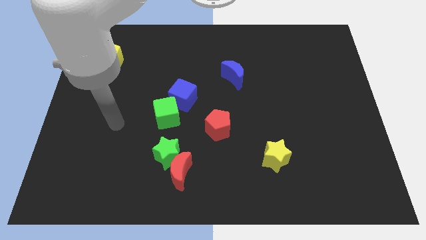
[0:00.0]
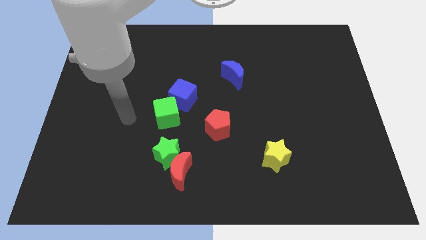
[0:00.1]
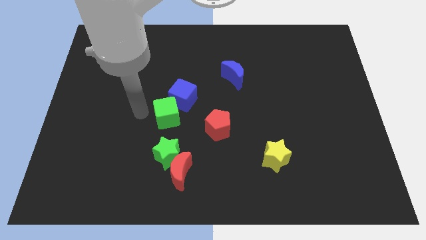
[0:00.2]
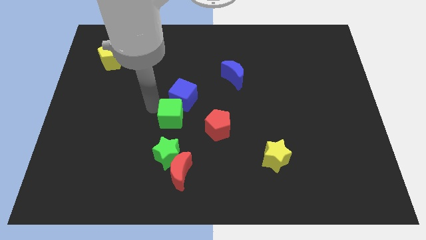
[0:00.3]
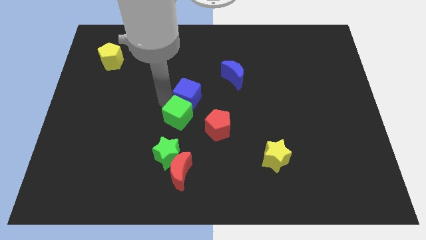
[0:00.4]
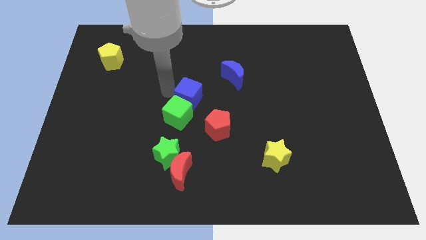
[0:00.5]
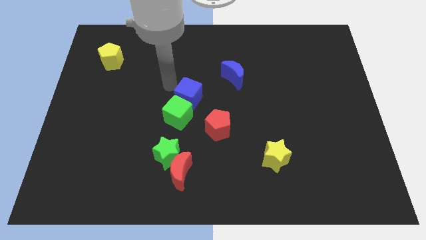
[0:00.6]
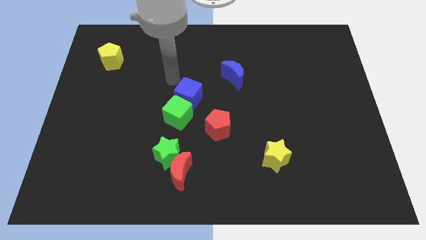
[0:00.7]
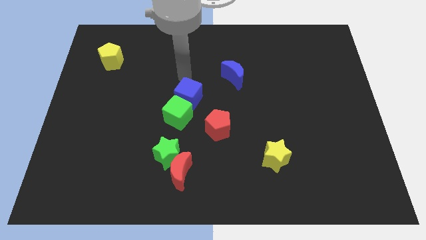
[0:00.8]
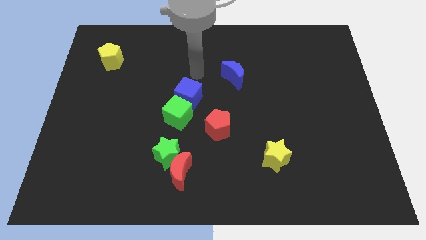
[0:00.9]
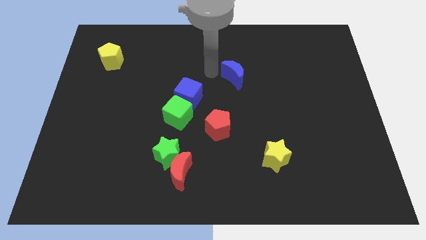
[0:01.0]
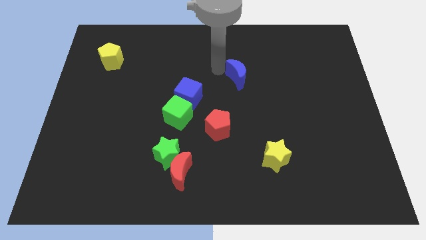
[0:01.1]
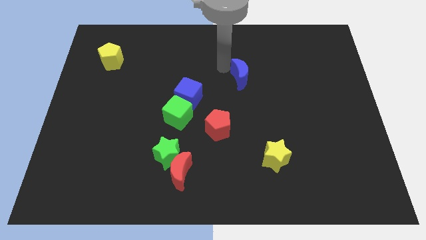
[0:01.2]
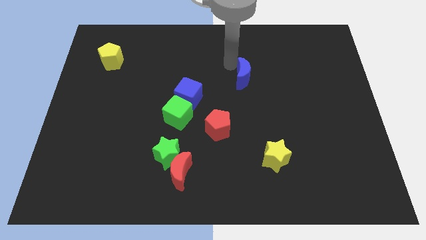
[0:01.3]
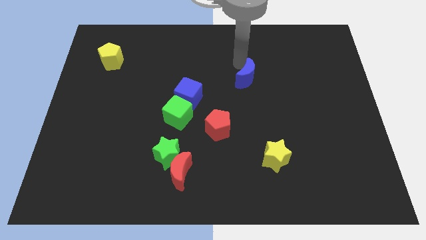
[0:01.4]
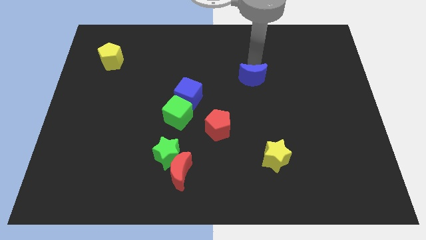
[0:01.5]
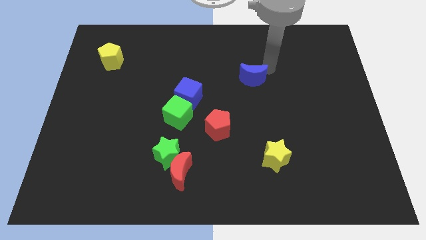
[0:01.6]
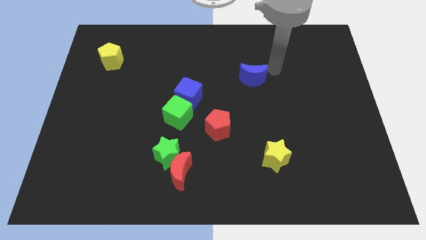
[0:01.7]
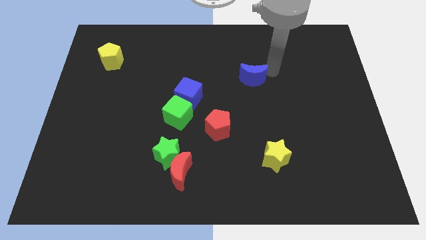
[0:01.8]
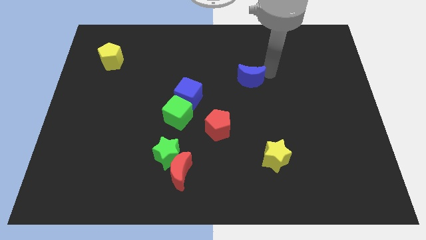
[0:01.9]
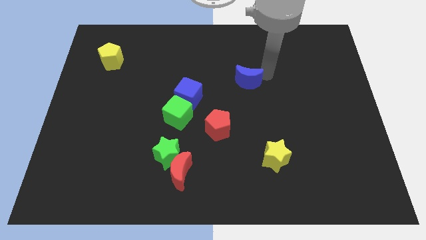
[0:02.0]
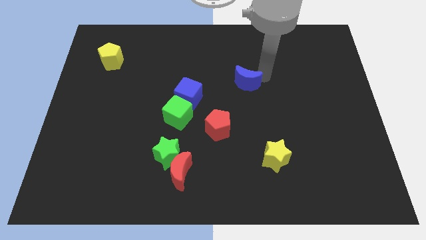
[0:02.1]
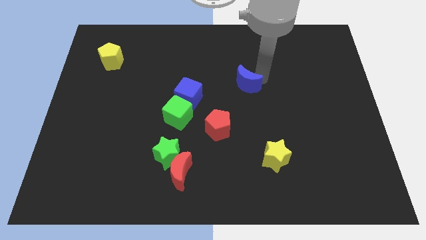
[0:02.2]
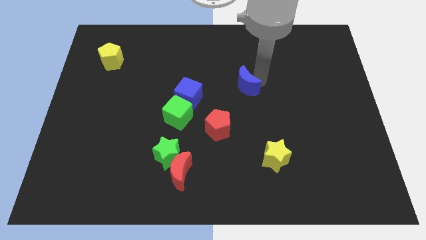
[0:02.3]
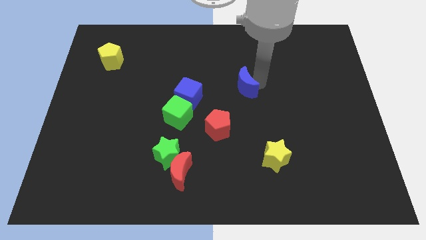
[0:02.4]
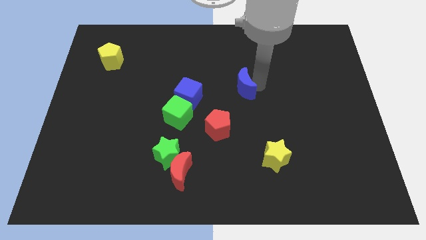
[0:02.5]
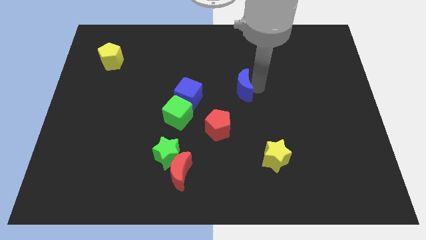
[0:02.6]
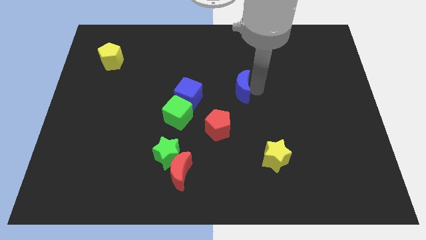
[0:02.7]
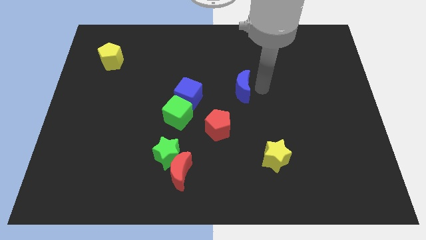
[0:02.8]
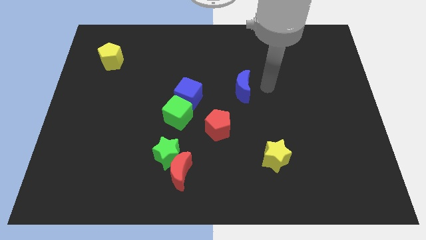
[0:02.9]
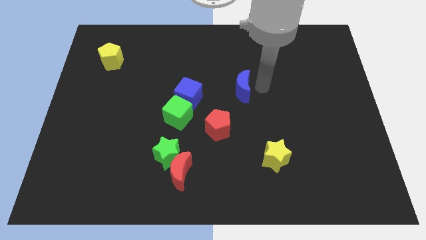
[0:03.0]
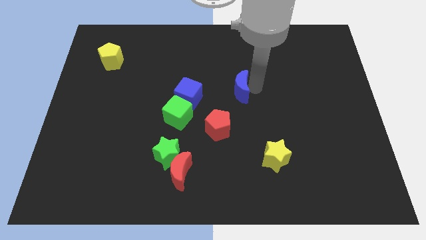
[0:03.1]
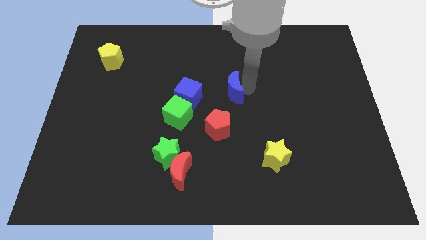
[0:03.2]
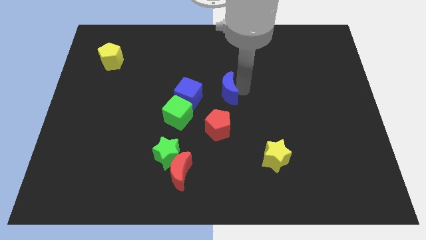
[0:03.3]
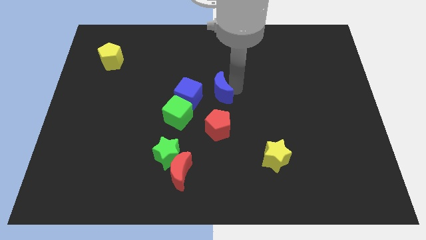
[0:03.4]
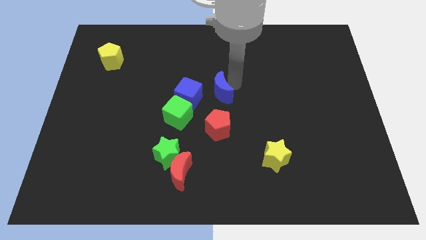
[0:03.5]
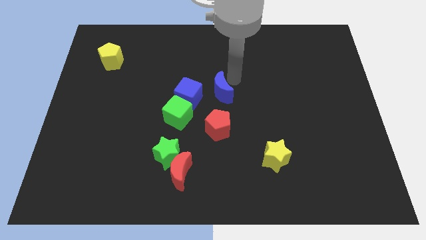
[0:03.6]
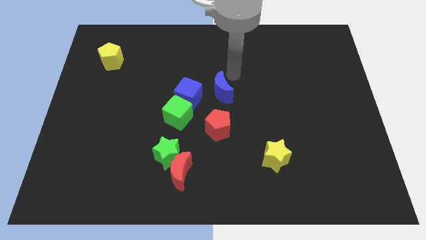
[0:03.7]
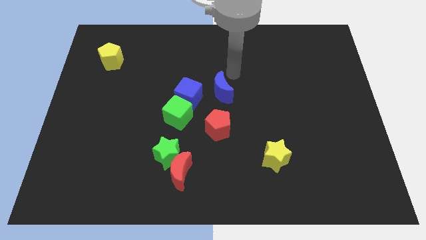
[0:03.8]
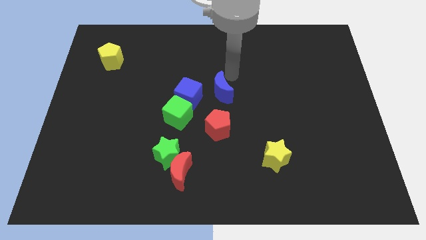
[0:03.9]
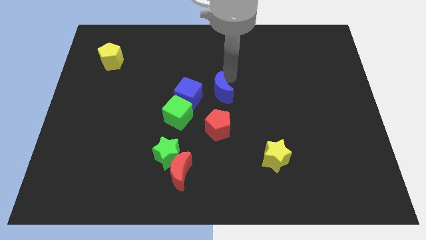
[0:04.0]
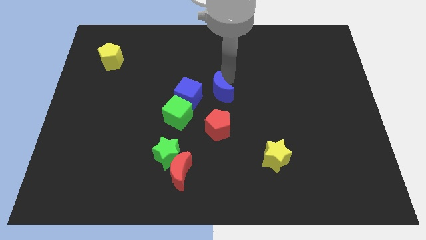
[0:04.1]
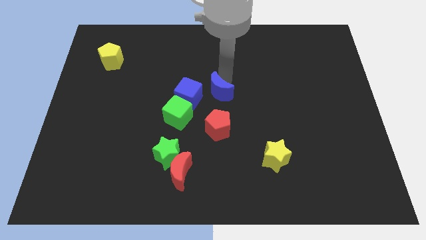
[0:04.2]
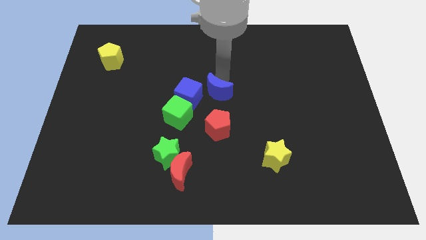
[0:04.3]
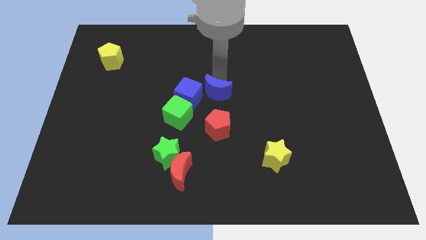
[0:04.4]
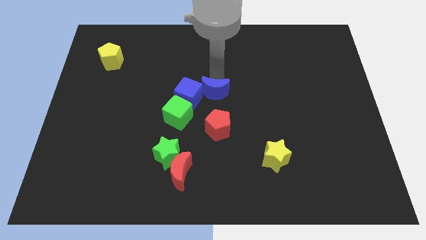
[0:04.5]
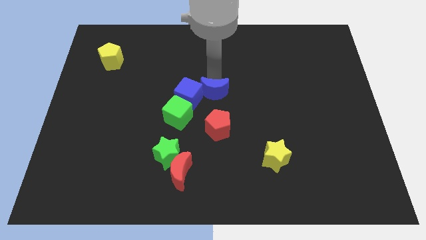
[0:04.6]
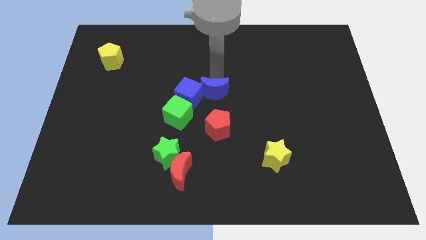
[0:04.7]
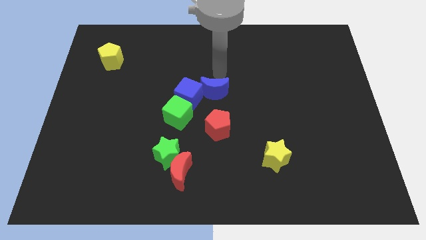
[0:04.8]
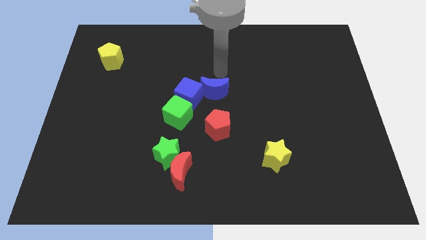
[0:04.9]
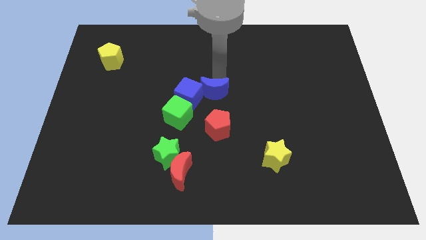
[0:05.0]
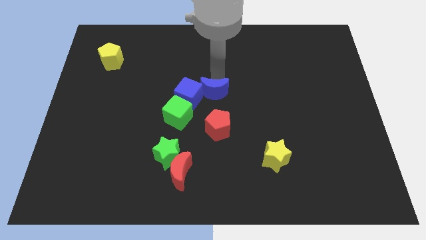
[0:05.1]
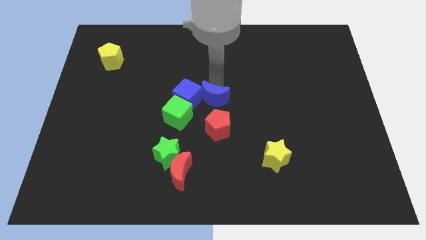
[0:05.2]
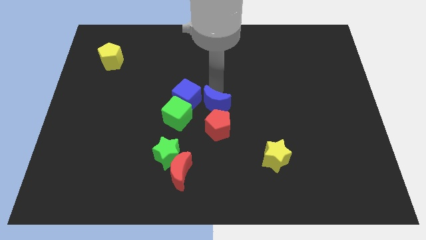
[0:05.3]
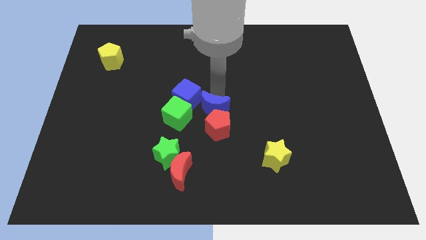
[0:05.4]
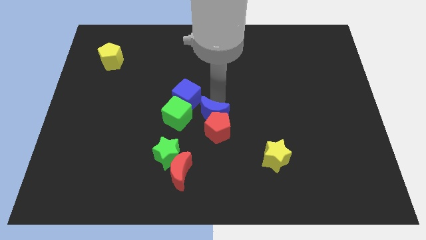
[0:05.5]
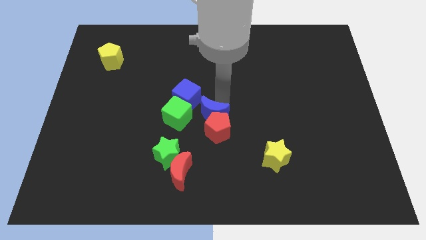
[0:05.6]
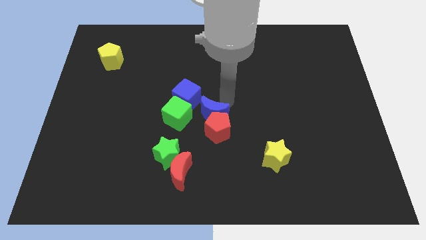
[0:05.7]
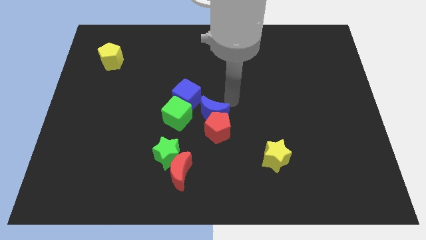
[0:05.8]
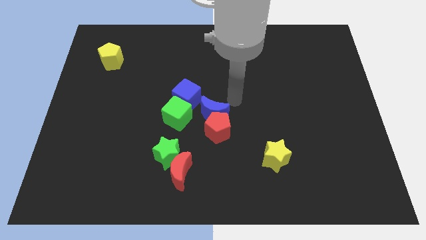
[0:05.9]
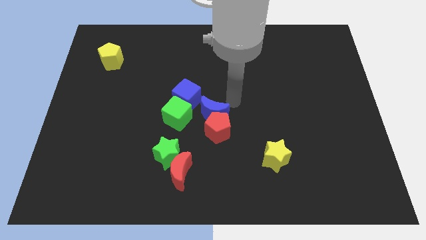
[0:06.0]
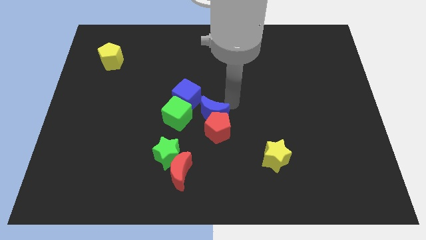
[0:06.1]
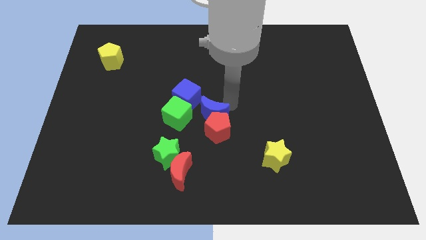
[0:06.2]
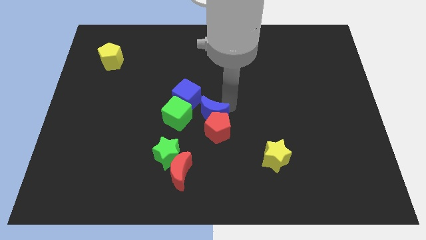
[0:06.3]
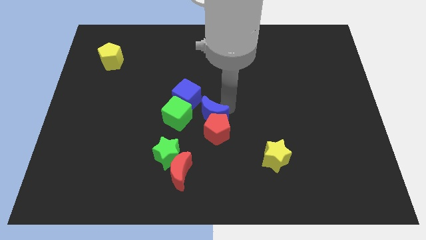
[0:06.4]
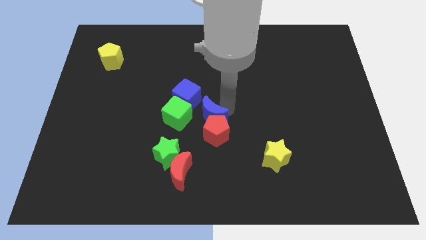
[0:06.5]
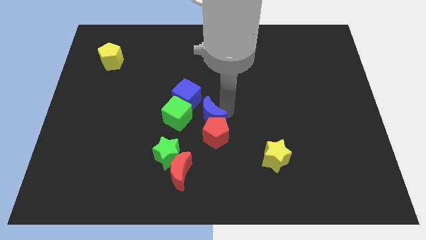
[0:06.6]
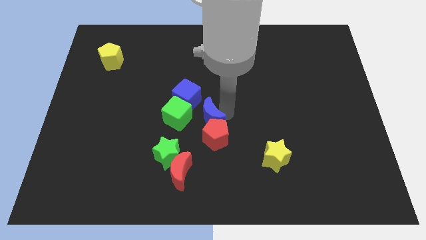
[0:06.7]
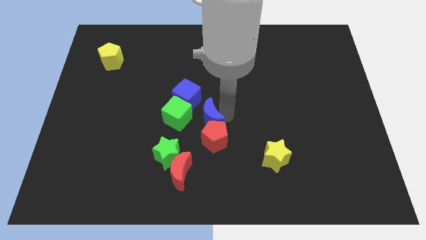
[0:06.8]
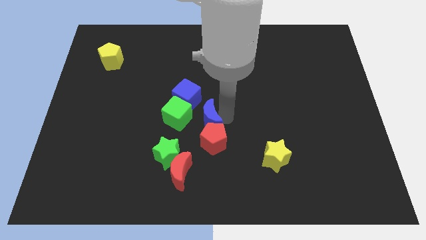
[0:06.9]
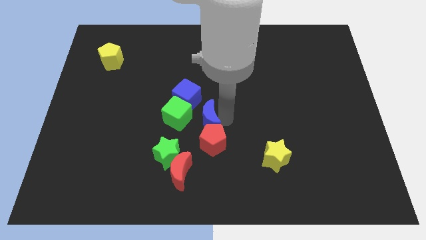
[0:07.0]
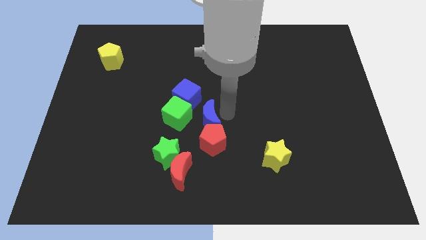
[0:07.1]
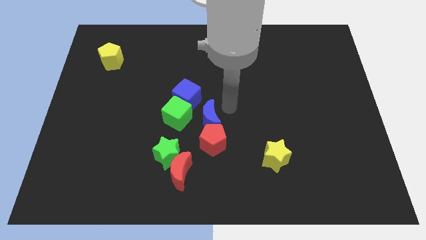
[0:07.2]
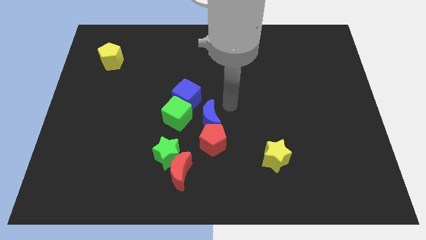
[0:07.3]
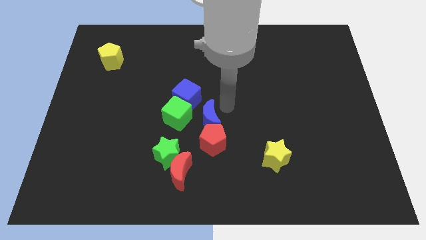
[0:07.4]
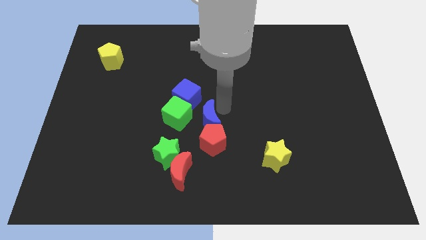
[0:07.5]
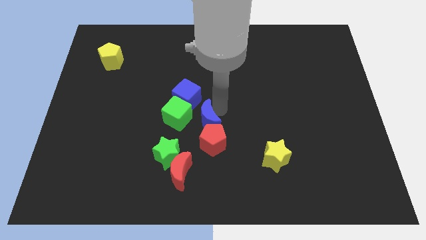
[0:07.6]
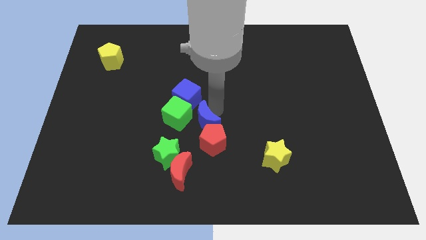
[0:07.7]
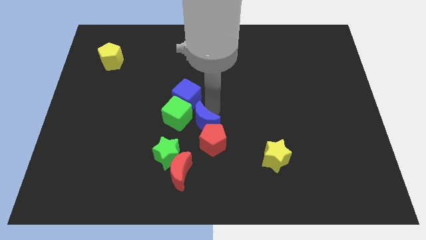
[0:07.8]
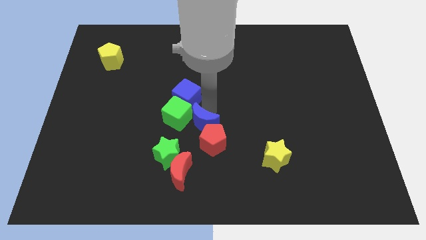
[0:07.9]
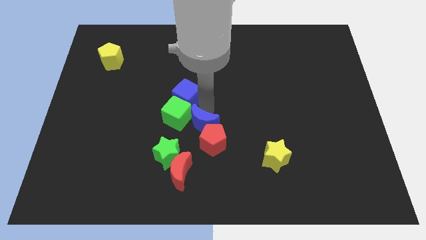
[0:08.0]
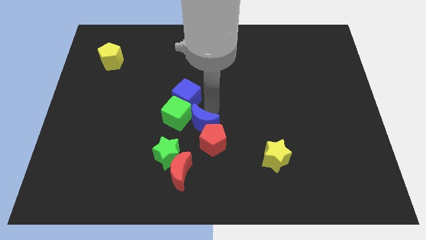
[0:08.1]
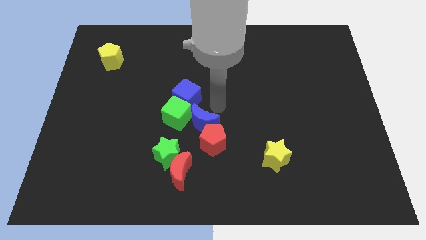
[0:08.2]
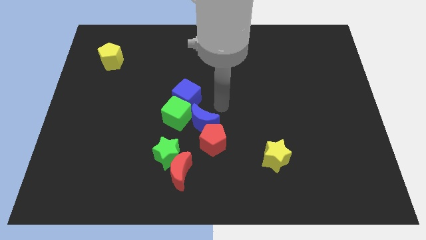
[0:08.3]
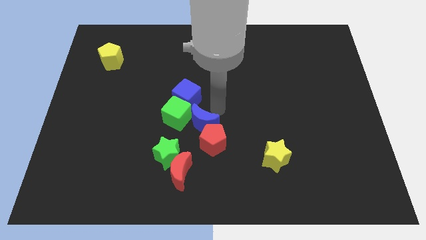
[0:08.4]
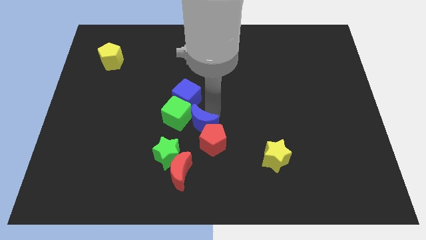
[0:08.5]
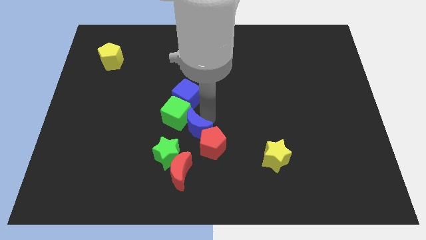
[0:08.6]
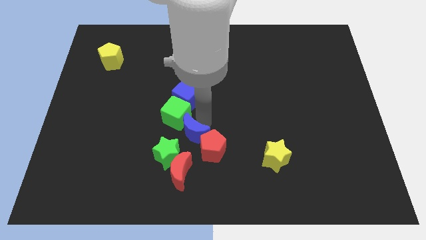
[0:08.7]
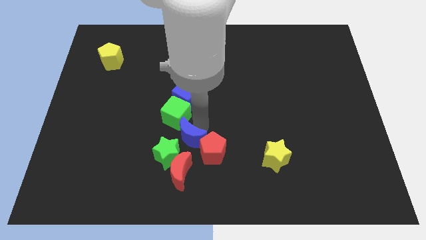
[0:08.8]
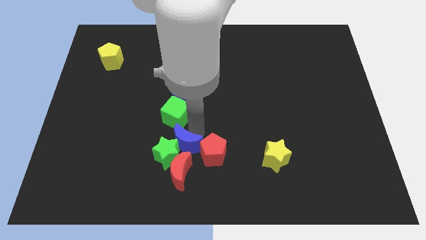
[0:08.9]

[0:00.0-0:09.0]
put the blue moon towards the green star
